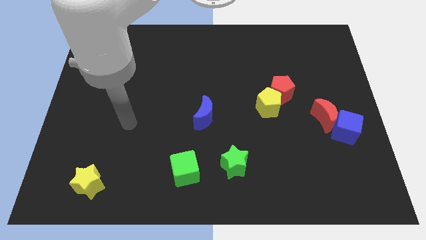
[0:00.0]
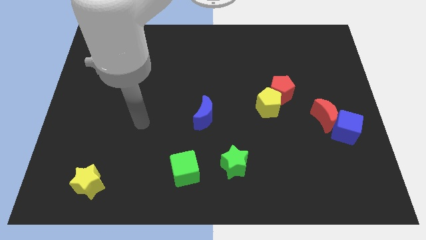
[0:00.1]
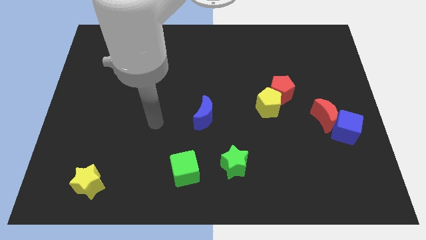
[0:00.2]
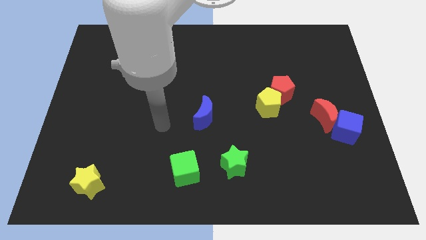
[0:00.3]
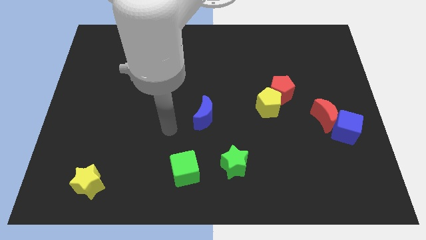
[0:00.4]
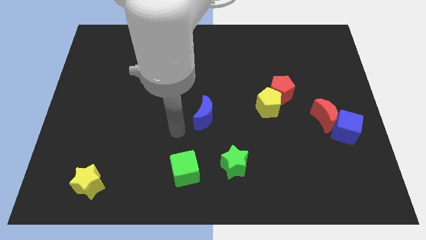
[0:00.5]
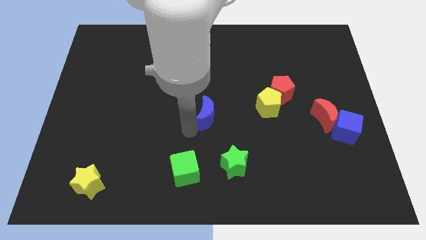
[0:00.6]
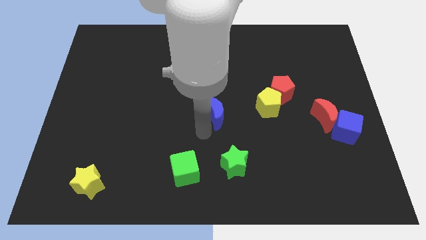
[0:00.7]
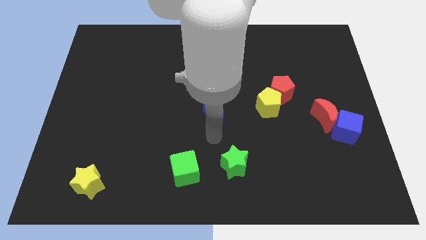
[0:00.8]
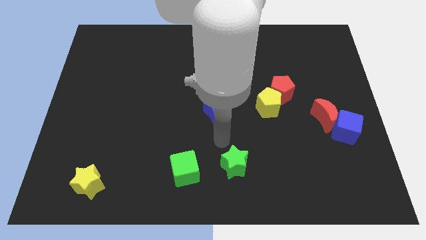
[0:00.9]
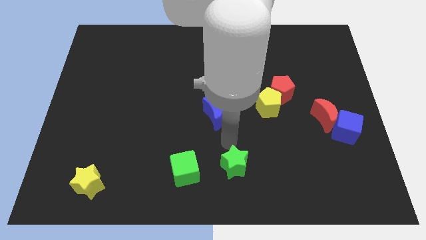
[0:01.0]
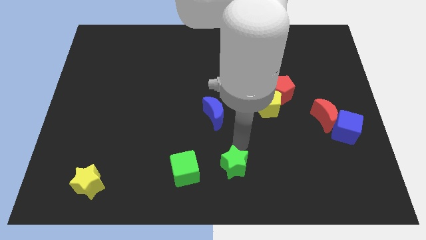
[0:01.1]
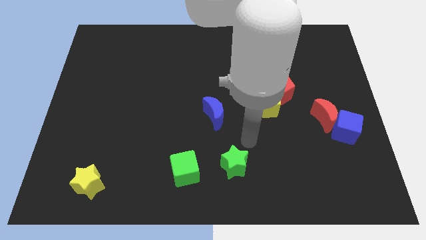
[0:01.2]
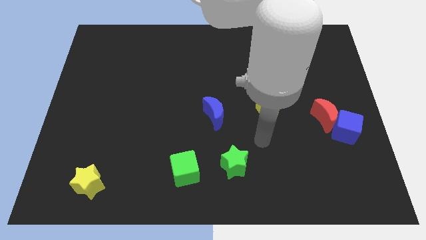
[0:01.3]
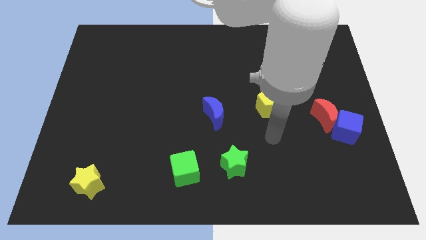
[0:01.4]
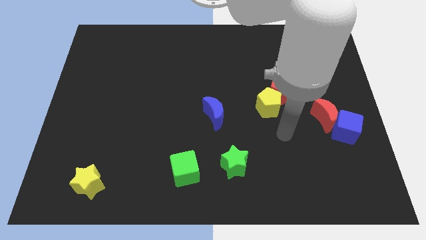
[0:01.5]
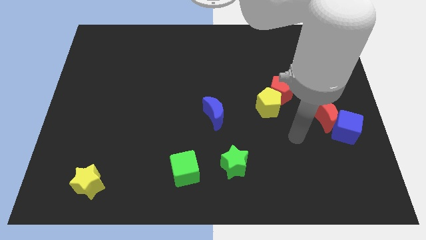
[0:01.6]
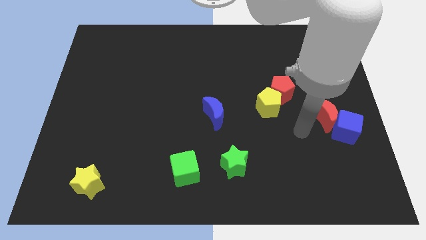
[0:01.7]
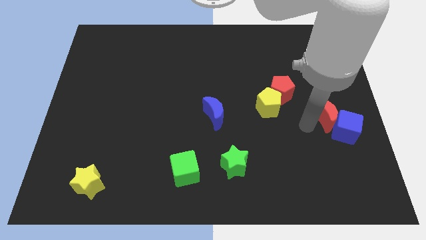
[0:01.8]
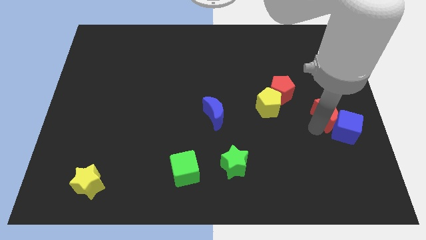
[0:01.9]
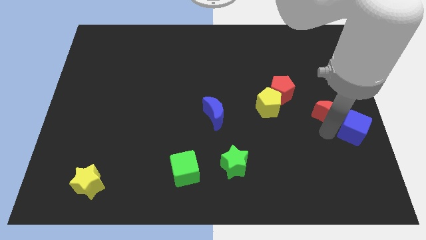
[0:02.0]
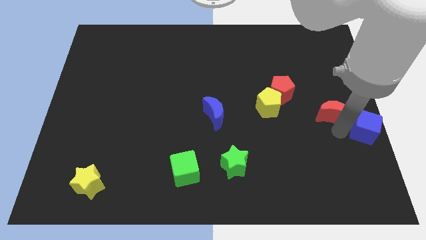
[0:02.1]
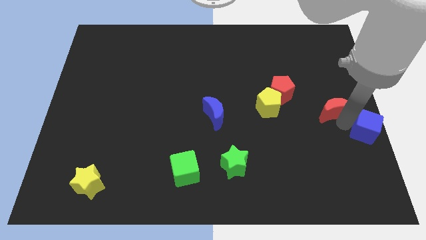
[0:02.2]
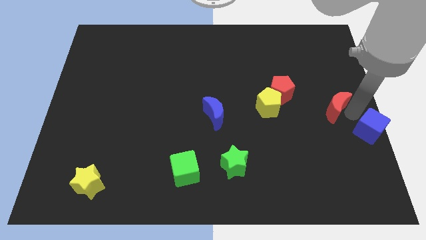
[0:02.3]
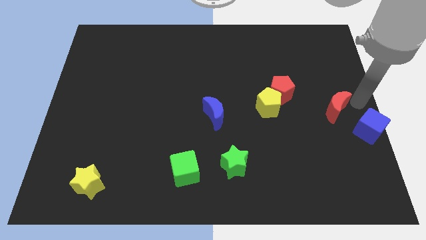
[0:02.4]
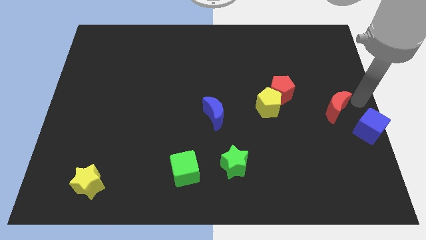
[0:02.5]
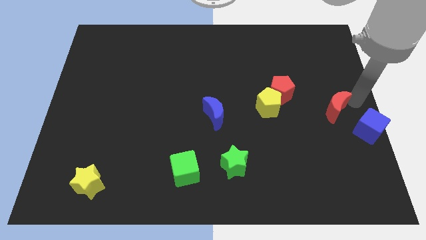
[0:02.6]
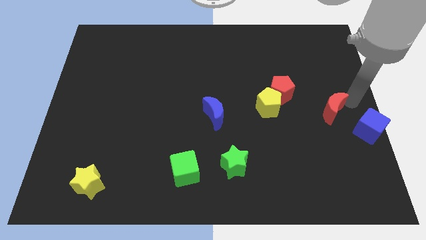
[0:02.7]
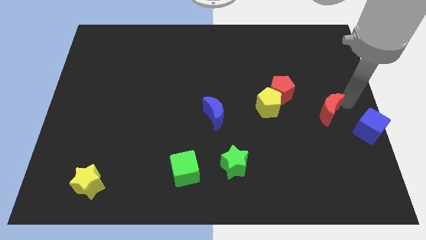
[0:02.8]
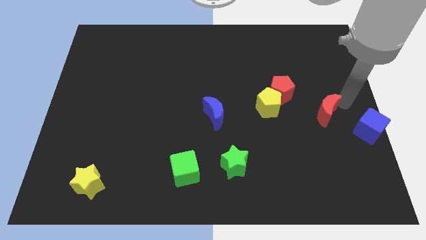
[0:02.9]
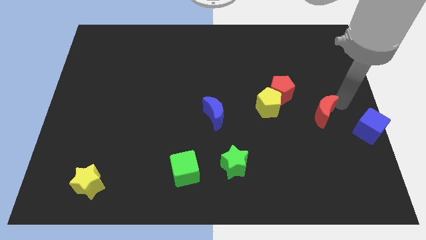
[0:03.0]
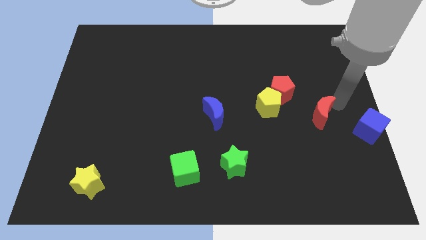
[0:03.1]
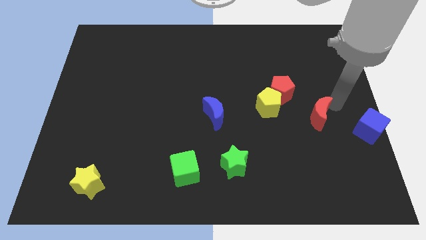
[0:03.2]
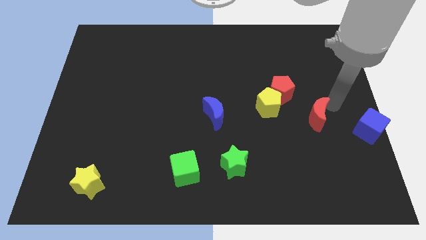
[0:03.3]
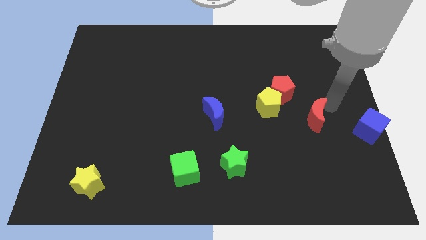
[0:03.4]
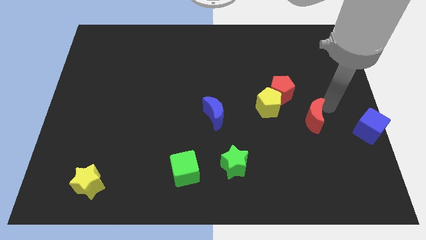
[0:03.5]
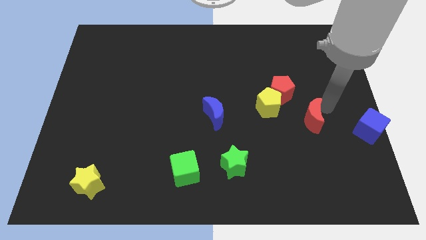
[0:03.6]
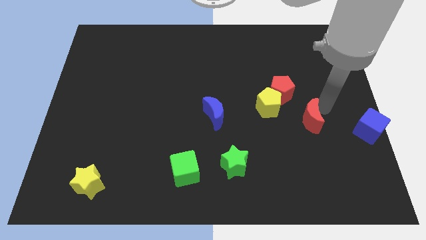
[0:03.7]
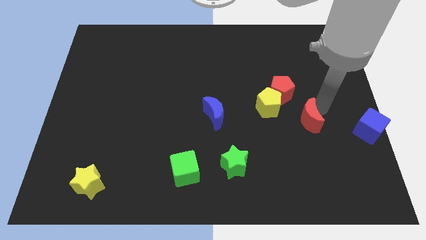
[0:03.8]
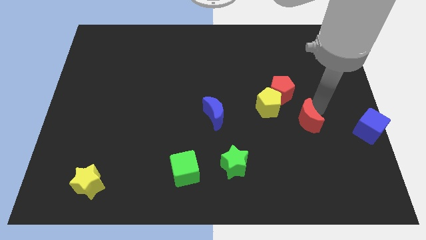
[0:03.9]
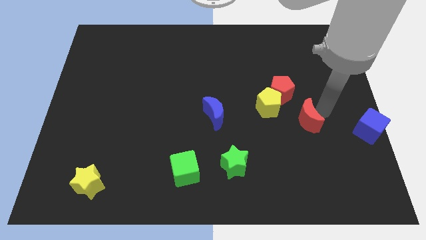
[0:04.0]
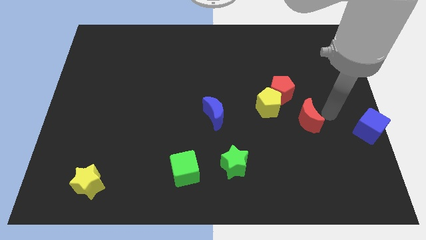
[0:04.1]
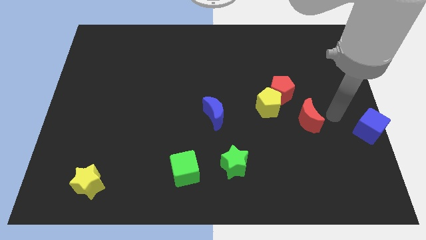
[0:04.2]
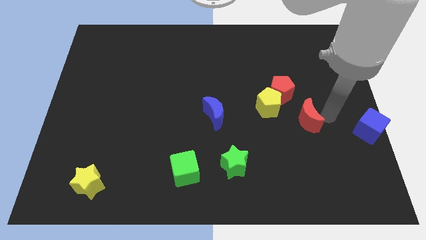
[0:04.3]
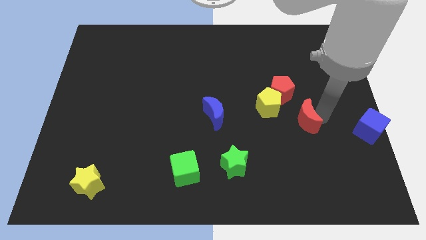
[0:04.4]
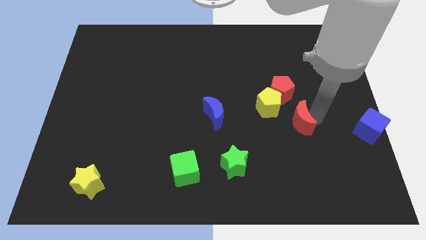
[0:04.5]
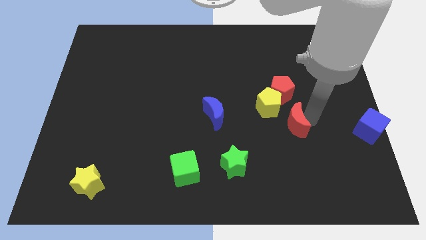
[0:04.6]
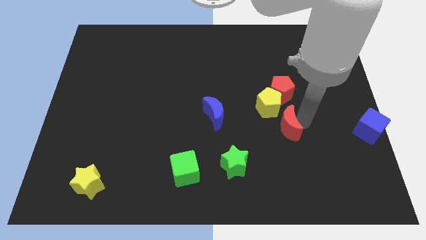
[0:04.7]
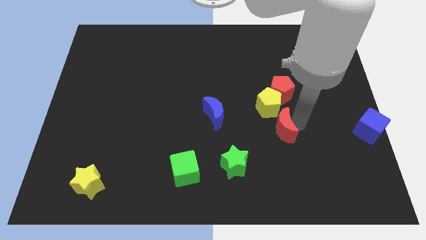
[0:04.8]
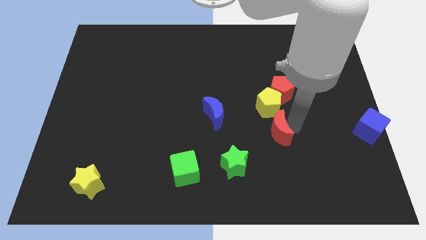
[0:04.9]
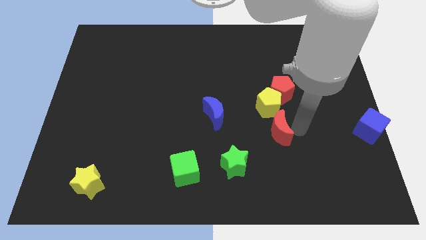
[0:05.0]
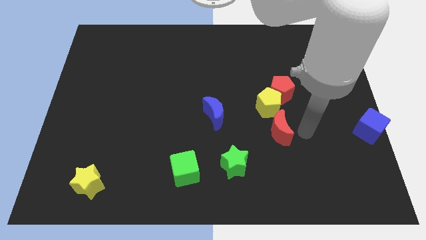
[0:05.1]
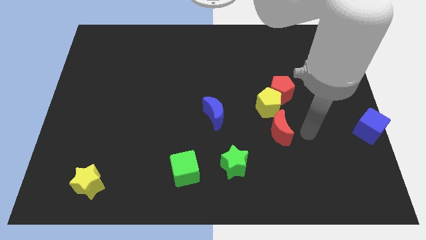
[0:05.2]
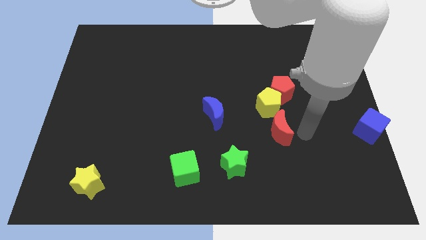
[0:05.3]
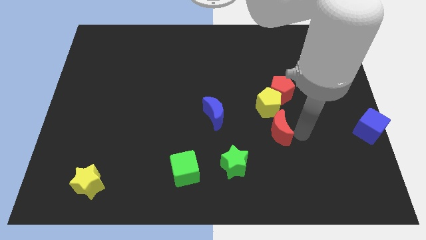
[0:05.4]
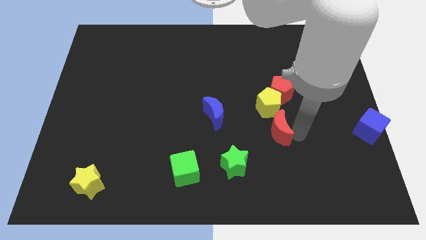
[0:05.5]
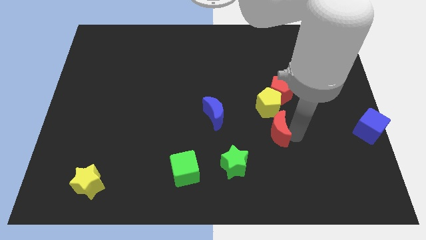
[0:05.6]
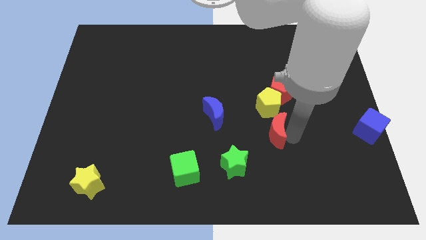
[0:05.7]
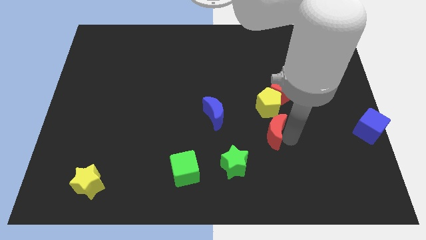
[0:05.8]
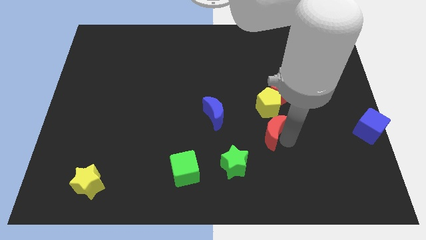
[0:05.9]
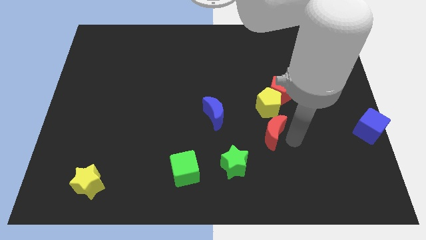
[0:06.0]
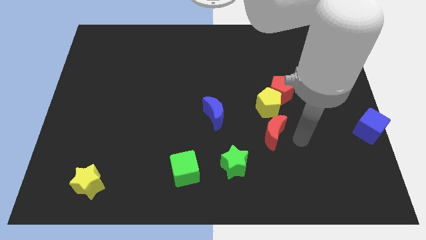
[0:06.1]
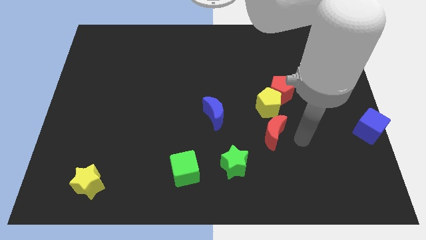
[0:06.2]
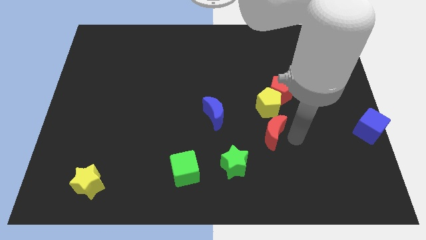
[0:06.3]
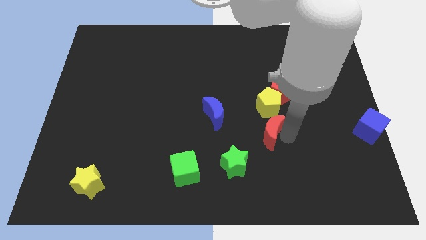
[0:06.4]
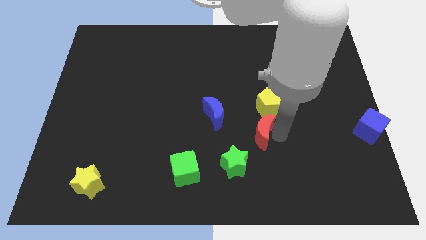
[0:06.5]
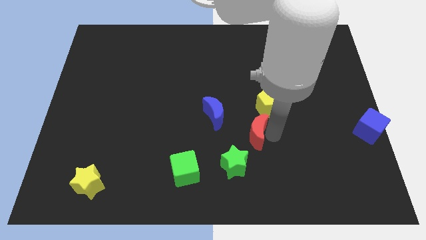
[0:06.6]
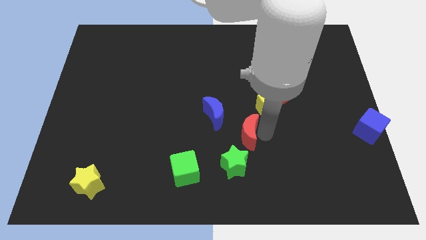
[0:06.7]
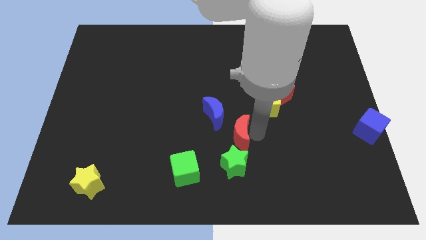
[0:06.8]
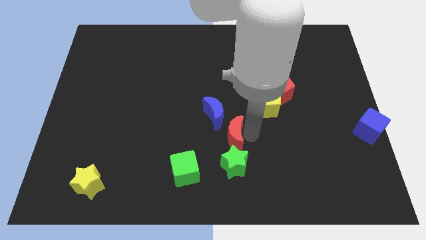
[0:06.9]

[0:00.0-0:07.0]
move the red moon to the left

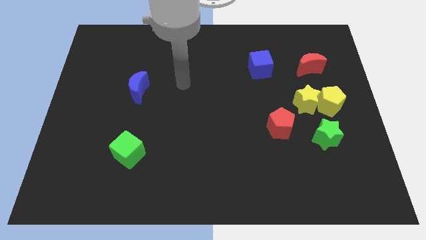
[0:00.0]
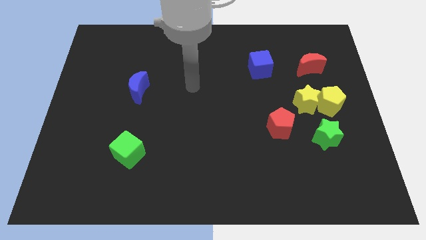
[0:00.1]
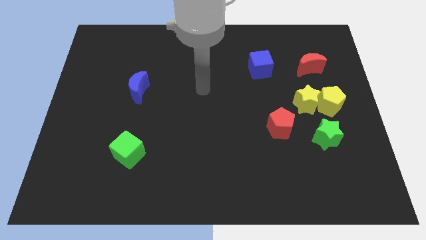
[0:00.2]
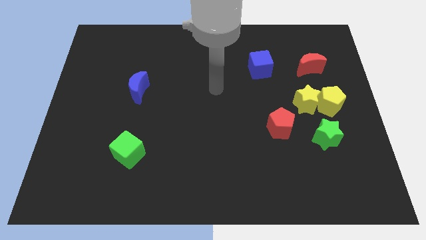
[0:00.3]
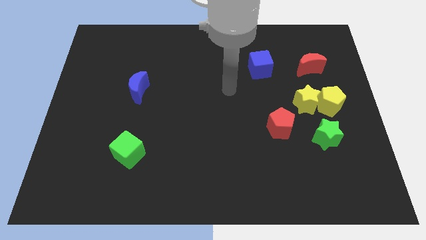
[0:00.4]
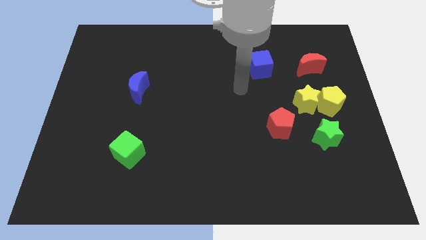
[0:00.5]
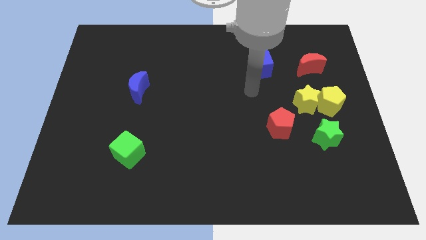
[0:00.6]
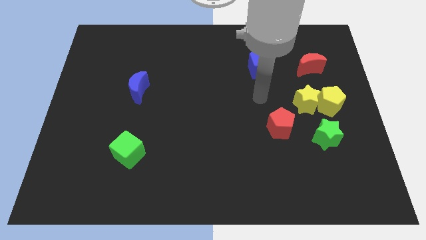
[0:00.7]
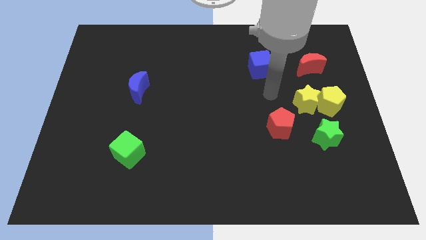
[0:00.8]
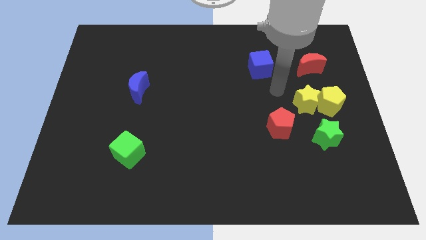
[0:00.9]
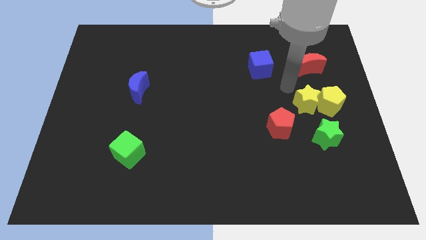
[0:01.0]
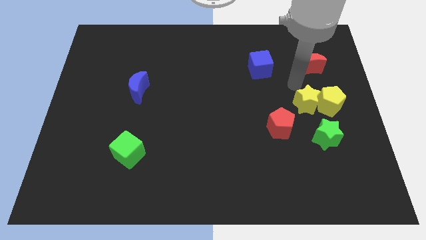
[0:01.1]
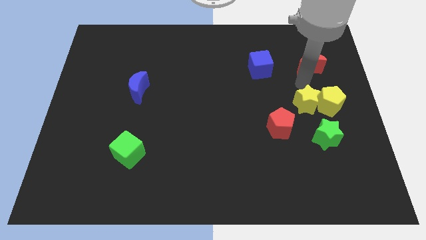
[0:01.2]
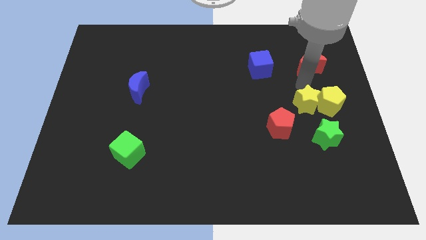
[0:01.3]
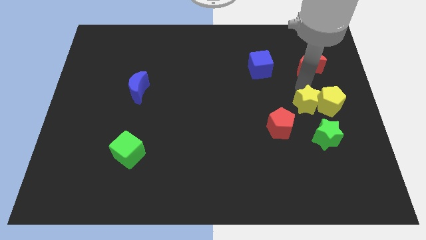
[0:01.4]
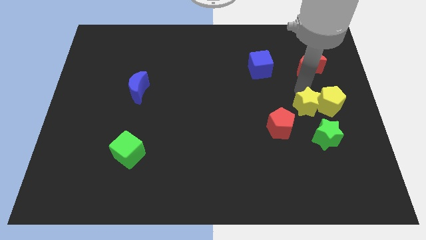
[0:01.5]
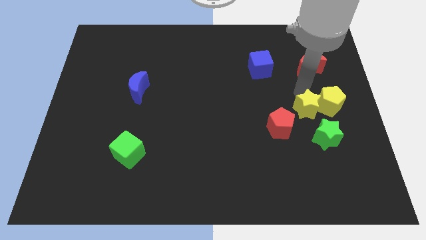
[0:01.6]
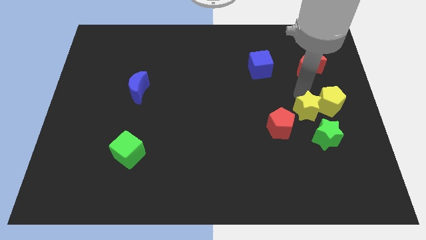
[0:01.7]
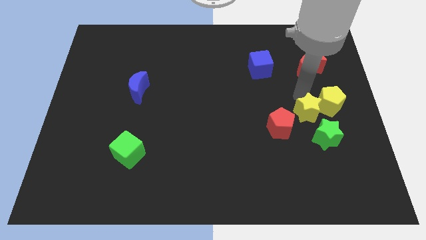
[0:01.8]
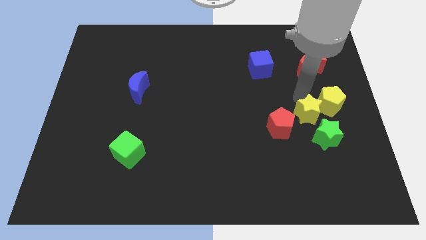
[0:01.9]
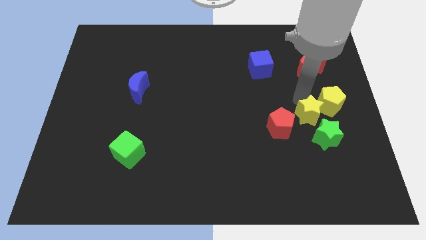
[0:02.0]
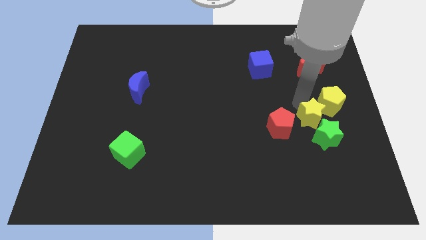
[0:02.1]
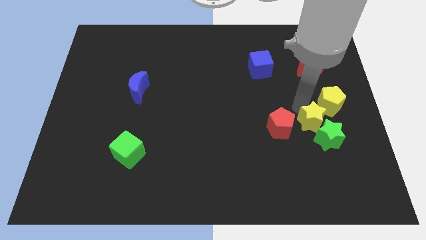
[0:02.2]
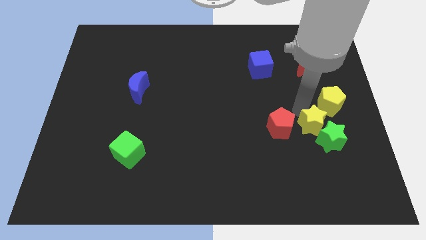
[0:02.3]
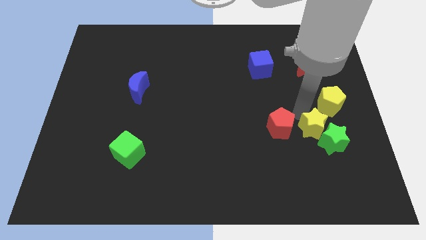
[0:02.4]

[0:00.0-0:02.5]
push the yellow star a little downwards
